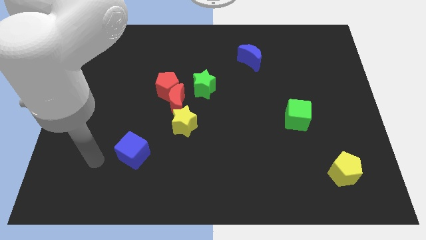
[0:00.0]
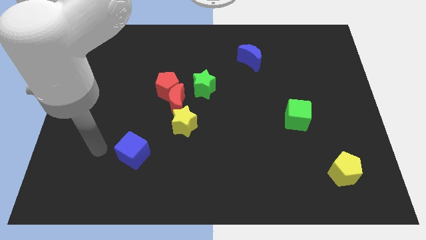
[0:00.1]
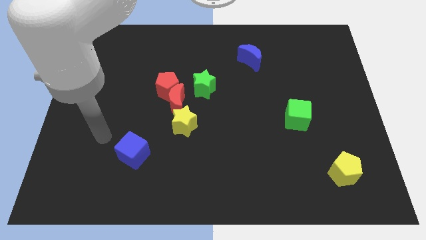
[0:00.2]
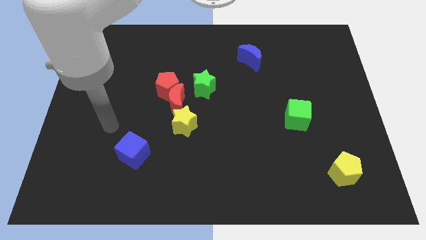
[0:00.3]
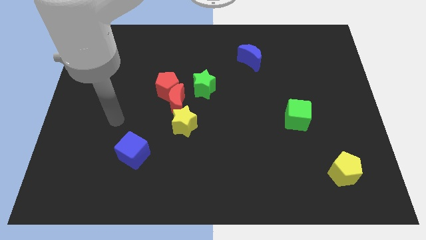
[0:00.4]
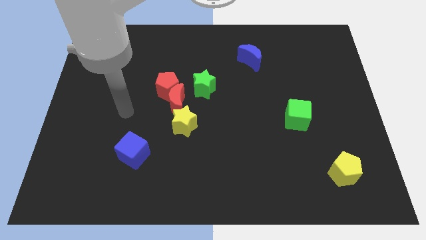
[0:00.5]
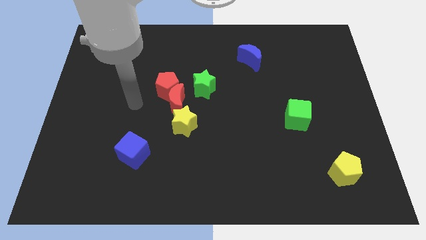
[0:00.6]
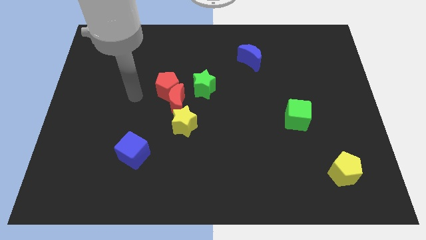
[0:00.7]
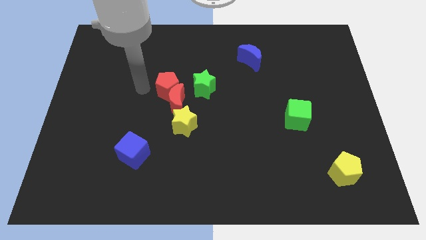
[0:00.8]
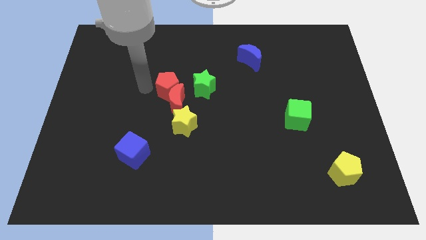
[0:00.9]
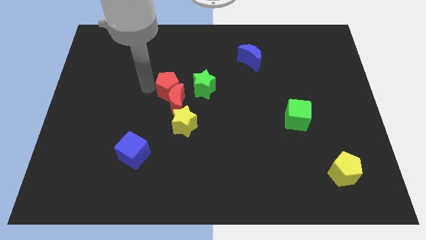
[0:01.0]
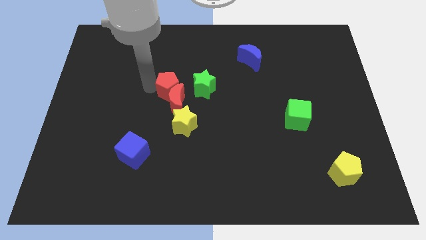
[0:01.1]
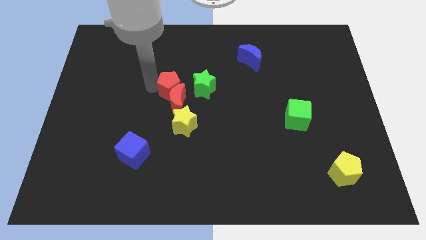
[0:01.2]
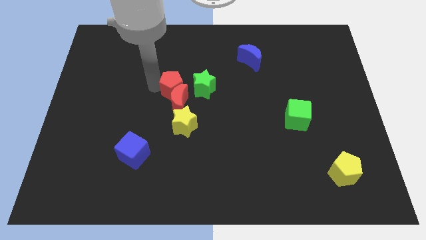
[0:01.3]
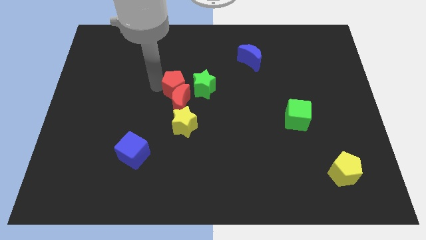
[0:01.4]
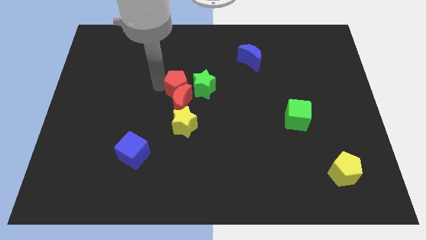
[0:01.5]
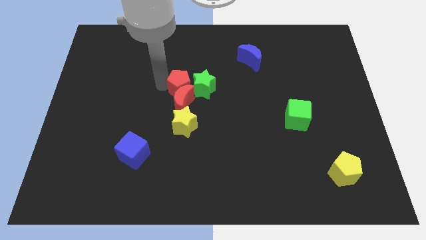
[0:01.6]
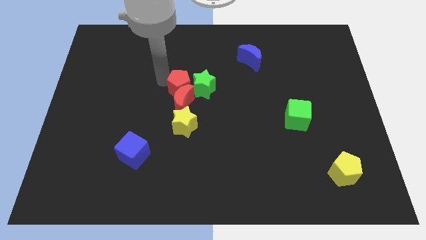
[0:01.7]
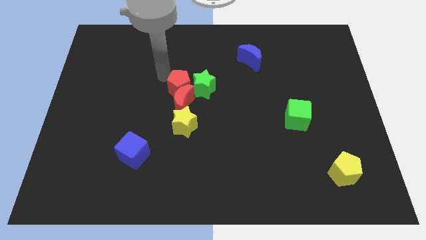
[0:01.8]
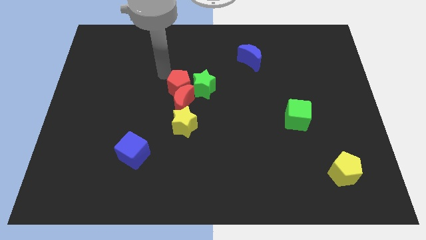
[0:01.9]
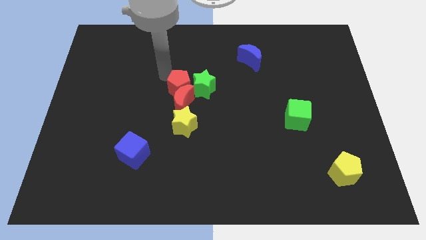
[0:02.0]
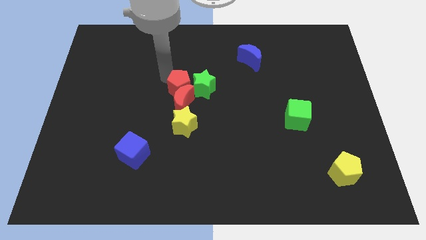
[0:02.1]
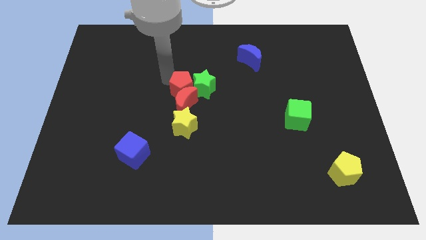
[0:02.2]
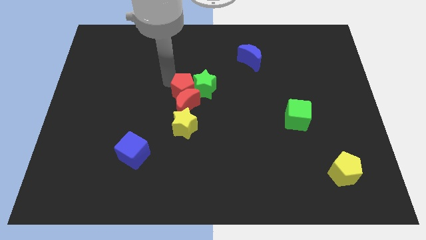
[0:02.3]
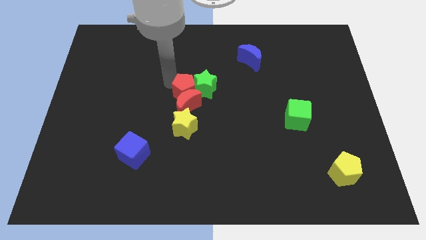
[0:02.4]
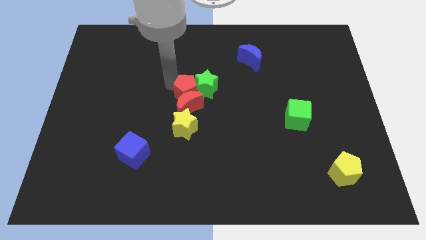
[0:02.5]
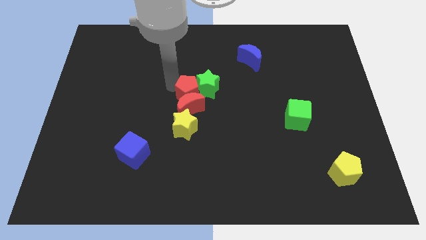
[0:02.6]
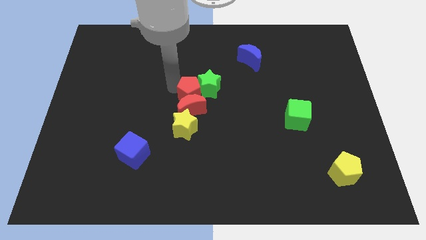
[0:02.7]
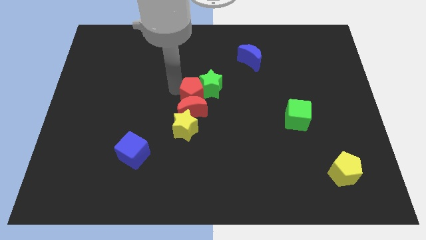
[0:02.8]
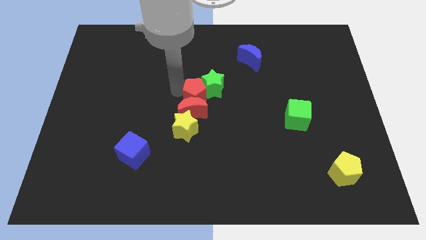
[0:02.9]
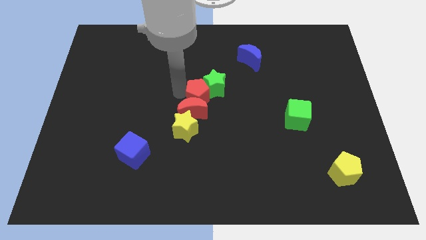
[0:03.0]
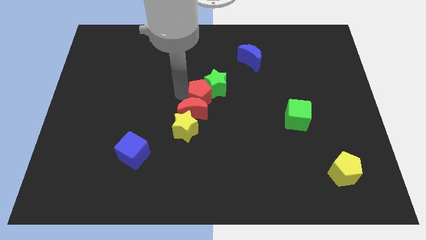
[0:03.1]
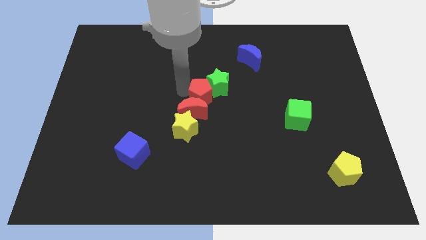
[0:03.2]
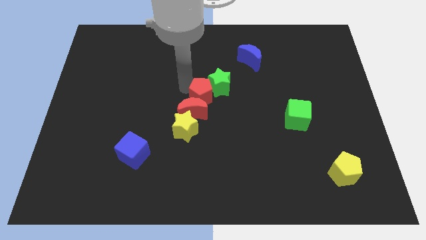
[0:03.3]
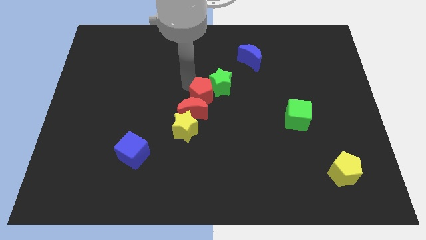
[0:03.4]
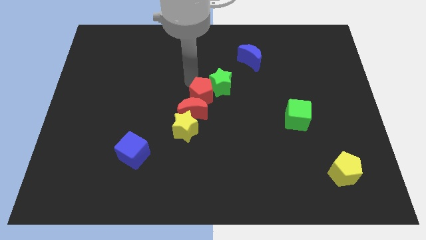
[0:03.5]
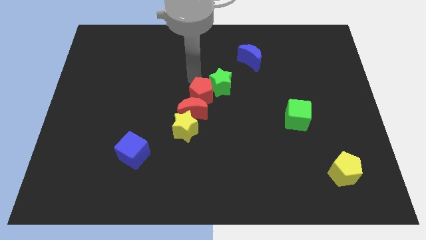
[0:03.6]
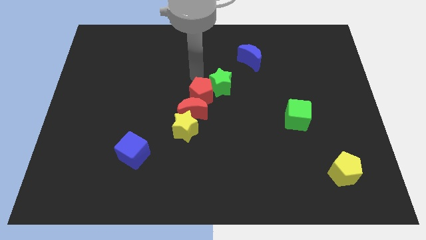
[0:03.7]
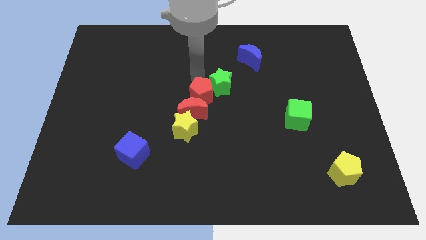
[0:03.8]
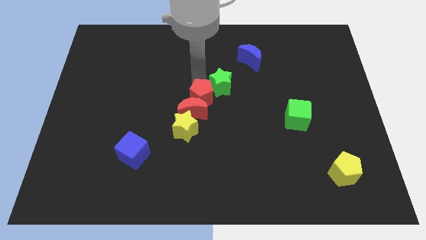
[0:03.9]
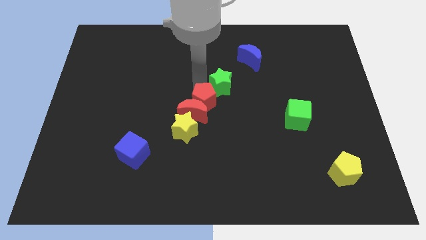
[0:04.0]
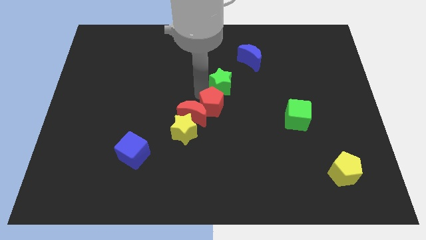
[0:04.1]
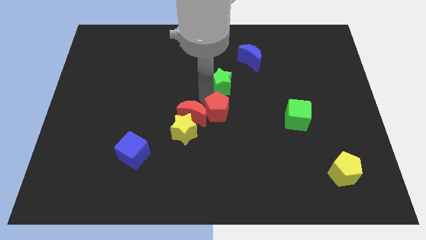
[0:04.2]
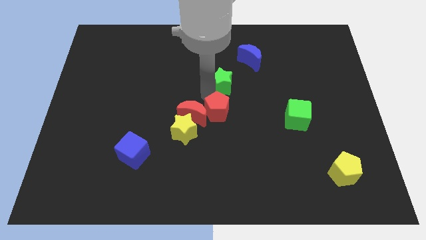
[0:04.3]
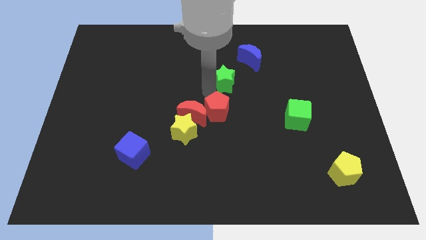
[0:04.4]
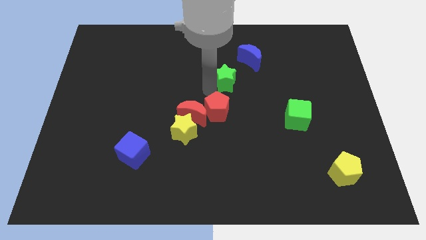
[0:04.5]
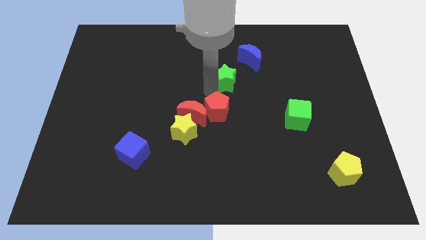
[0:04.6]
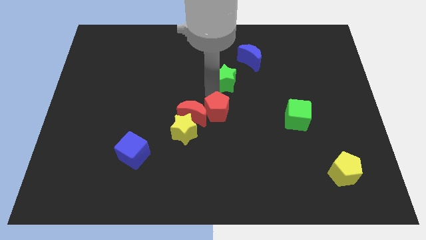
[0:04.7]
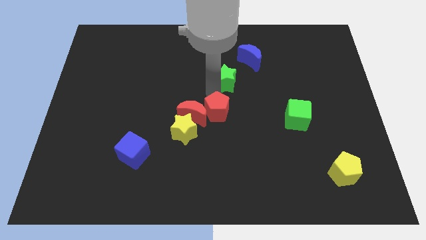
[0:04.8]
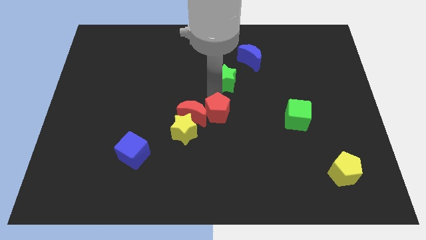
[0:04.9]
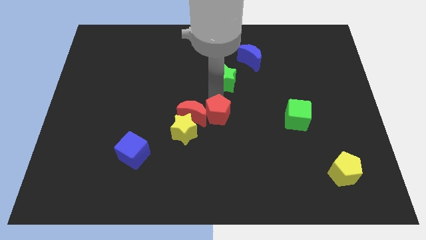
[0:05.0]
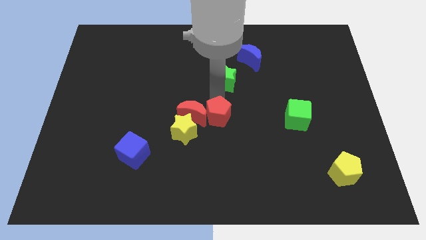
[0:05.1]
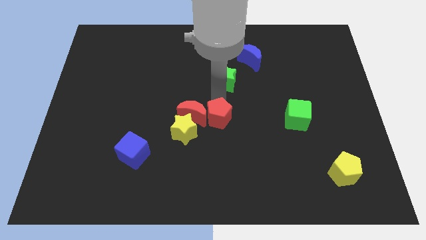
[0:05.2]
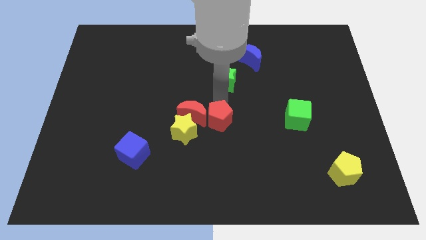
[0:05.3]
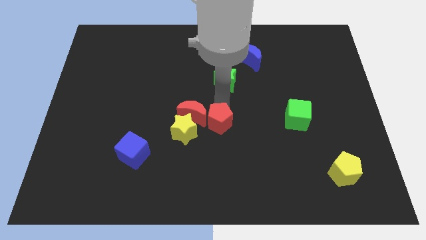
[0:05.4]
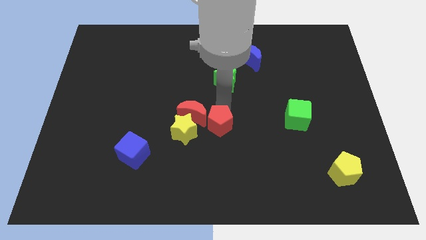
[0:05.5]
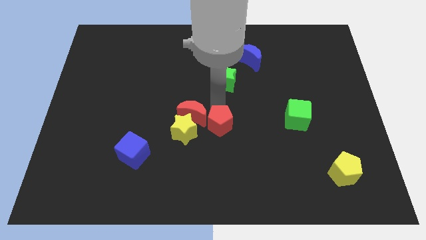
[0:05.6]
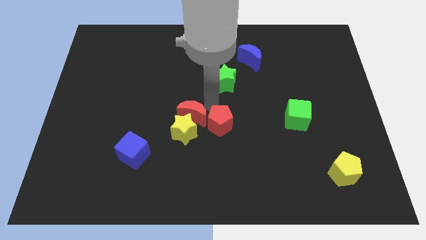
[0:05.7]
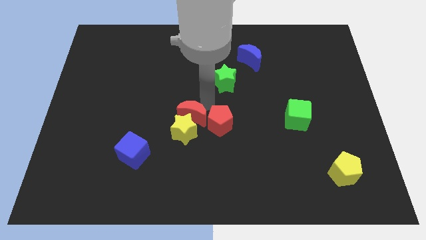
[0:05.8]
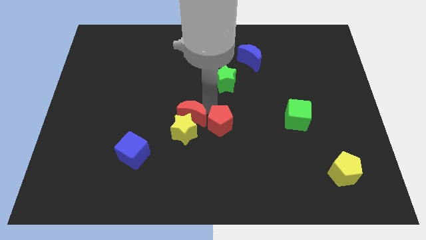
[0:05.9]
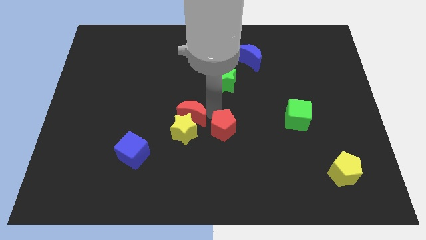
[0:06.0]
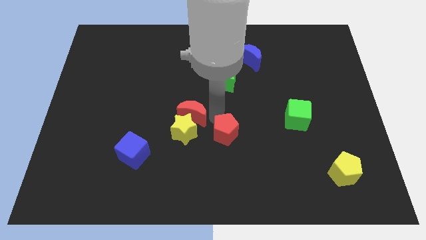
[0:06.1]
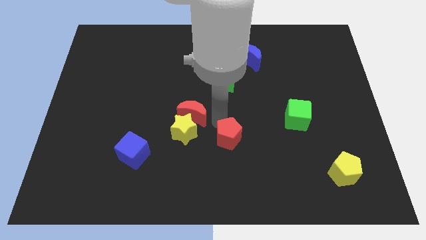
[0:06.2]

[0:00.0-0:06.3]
slide the red pentagon downwards and then right

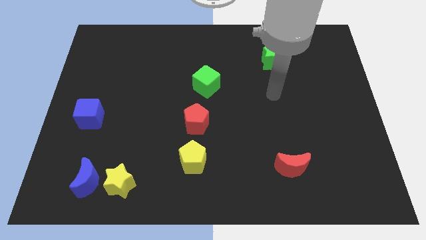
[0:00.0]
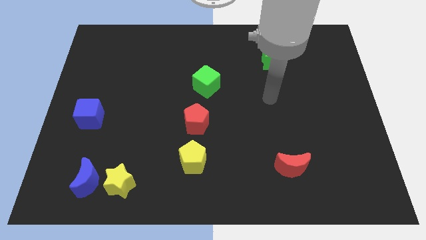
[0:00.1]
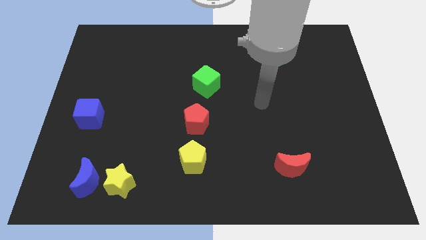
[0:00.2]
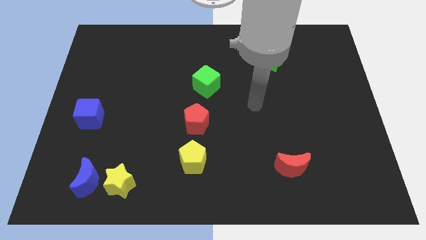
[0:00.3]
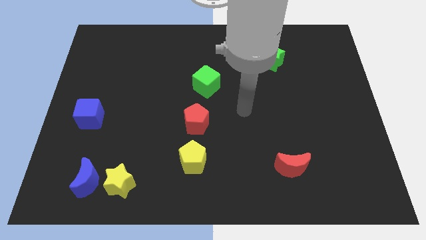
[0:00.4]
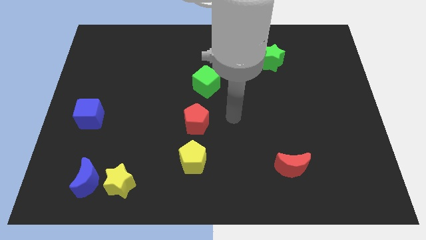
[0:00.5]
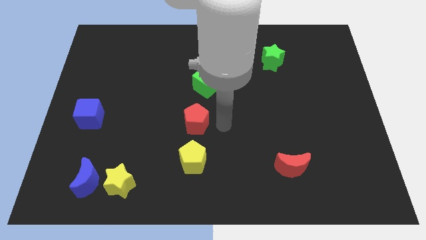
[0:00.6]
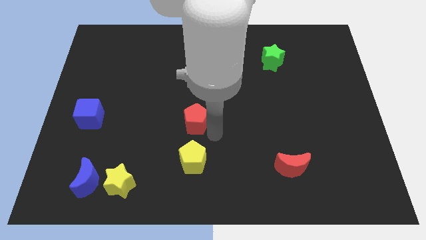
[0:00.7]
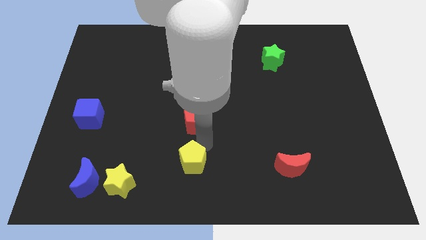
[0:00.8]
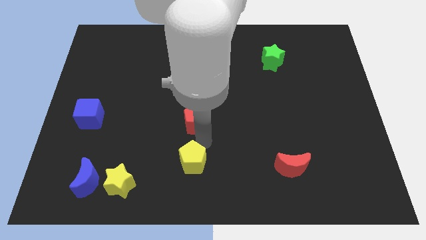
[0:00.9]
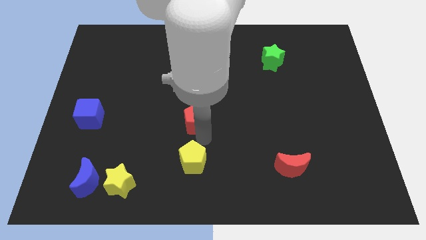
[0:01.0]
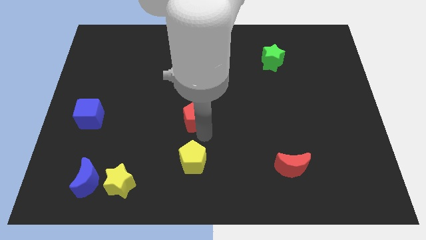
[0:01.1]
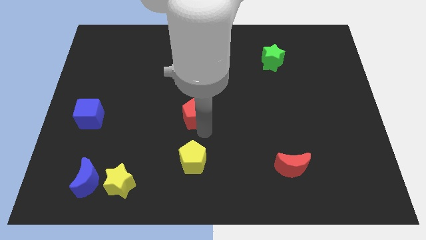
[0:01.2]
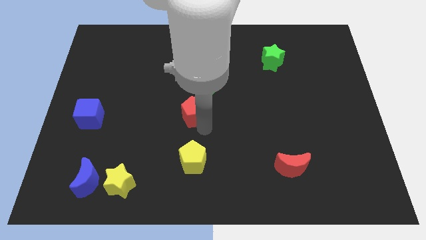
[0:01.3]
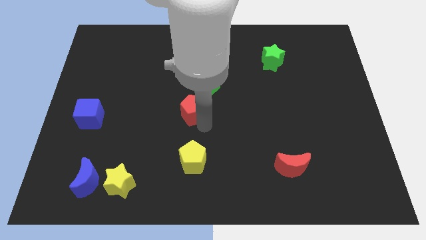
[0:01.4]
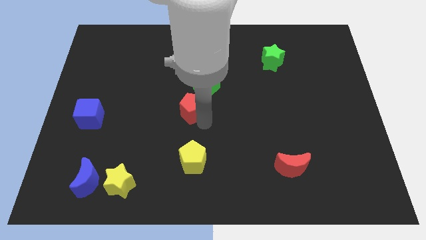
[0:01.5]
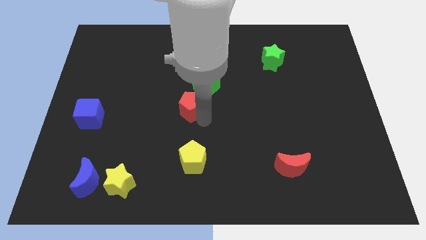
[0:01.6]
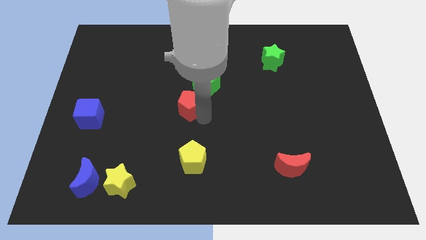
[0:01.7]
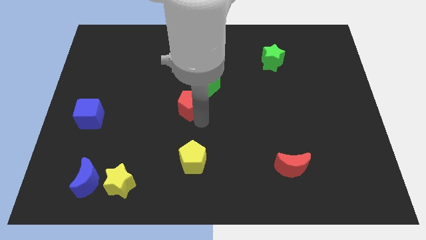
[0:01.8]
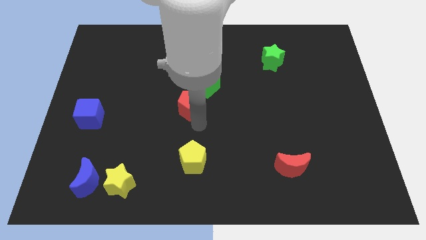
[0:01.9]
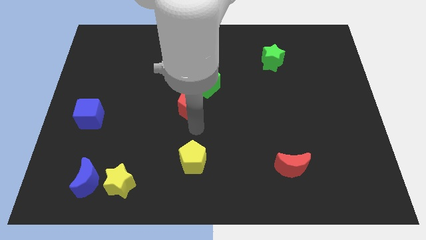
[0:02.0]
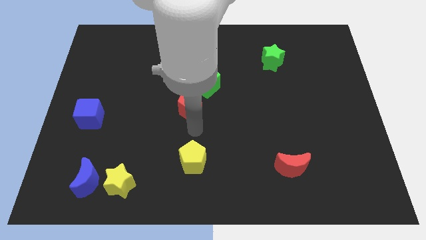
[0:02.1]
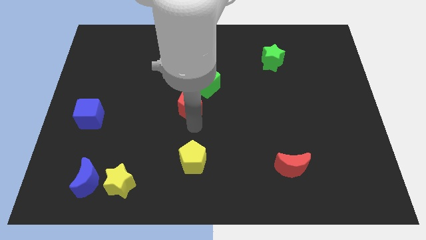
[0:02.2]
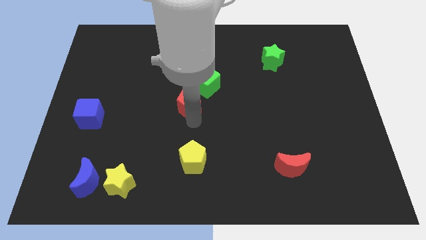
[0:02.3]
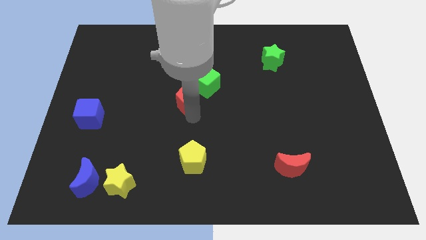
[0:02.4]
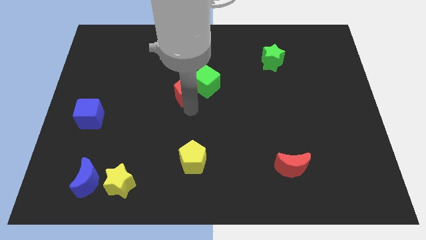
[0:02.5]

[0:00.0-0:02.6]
slide the red pentagon a little upwards
